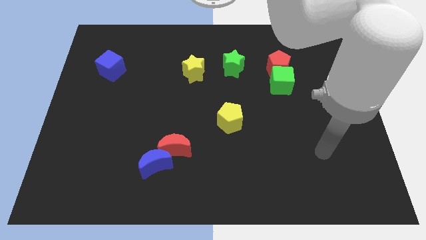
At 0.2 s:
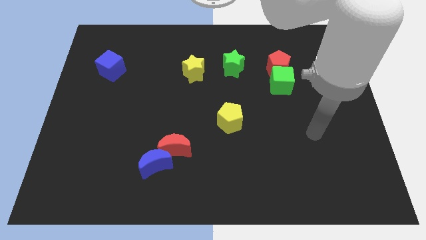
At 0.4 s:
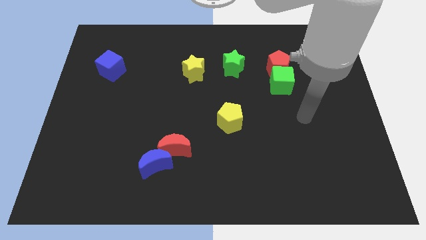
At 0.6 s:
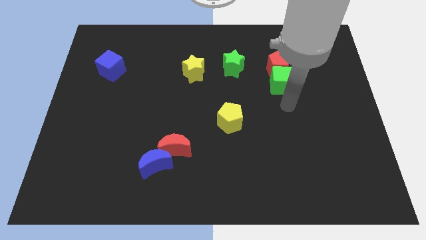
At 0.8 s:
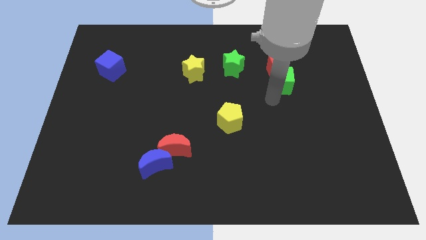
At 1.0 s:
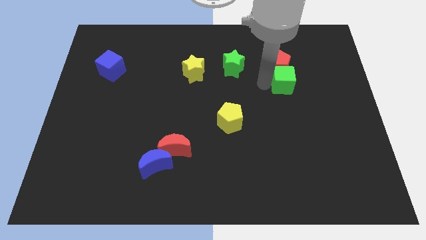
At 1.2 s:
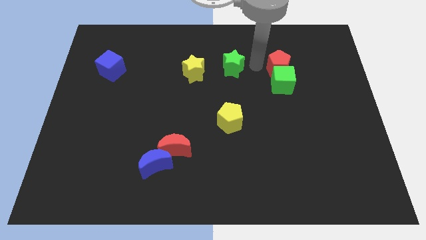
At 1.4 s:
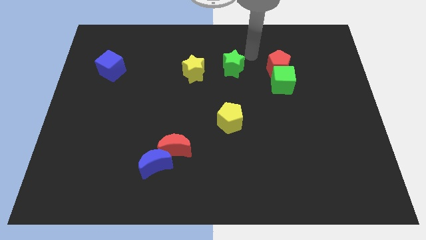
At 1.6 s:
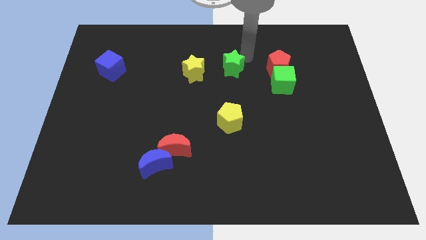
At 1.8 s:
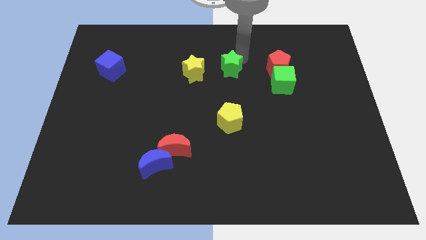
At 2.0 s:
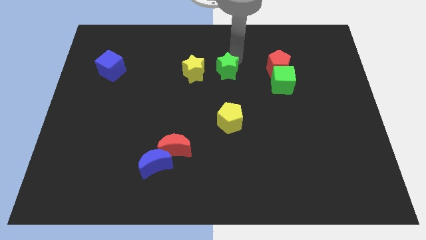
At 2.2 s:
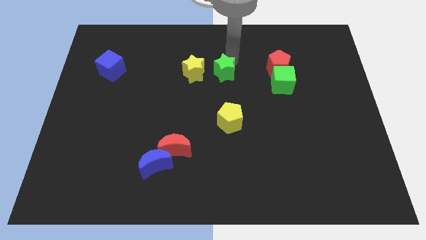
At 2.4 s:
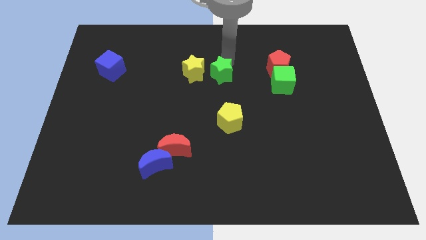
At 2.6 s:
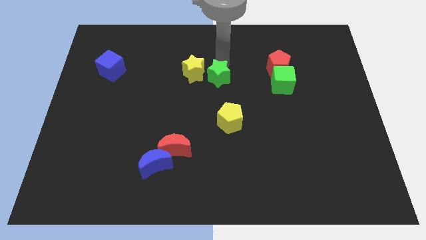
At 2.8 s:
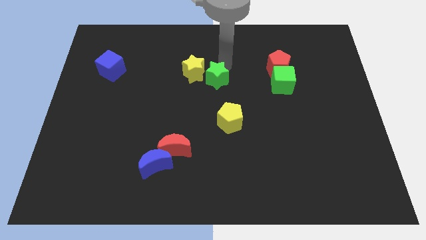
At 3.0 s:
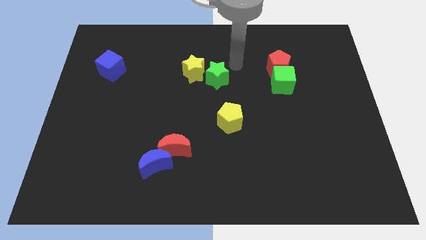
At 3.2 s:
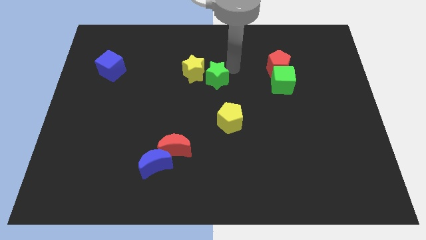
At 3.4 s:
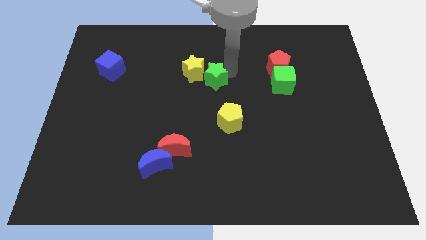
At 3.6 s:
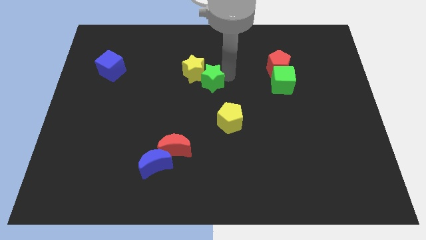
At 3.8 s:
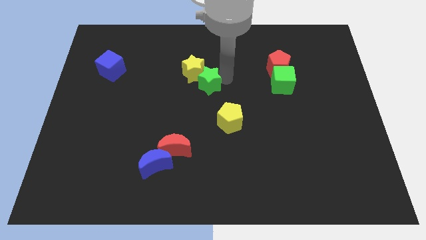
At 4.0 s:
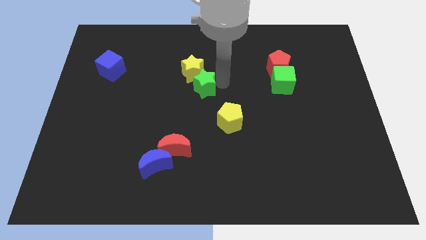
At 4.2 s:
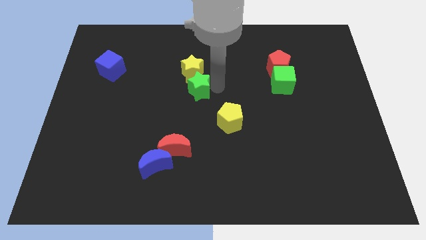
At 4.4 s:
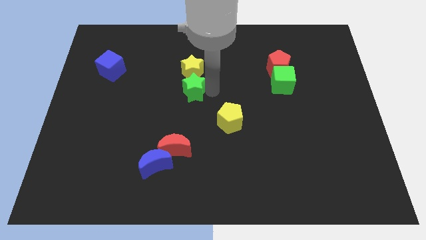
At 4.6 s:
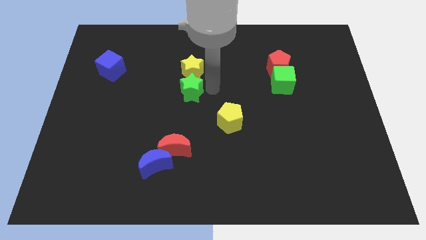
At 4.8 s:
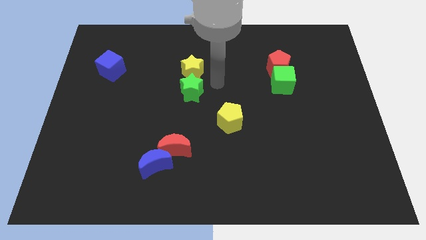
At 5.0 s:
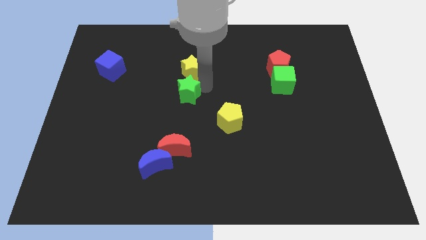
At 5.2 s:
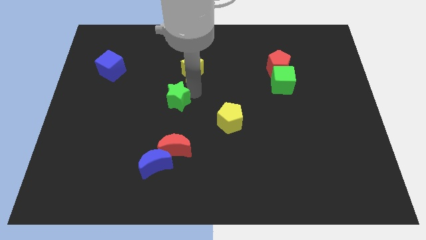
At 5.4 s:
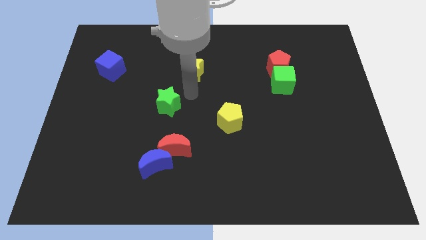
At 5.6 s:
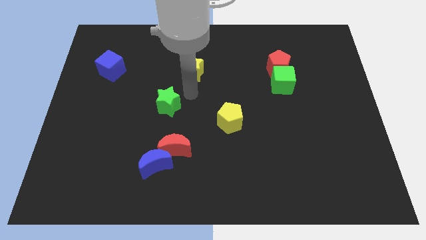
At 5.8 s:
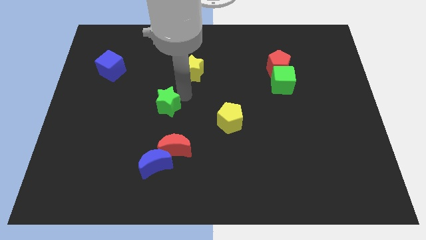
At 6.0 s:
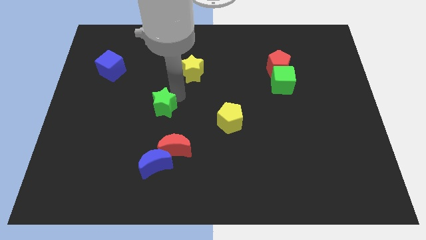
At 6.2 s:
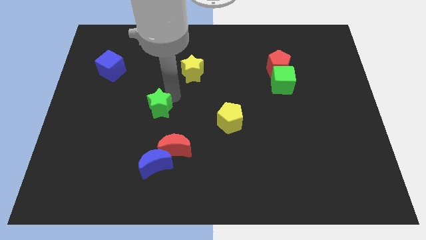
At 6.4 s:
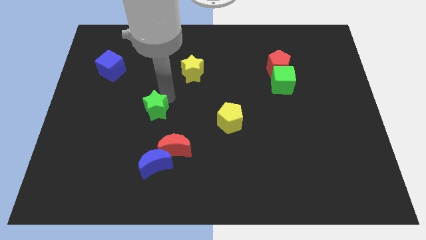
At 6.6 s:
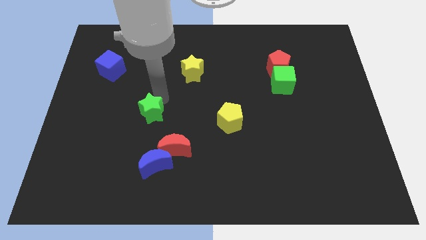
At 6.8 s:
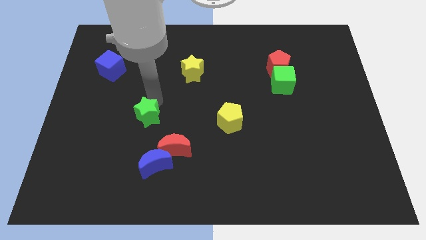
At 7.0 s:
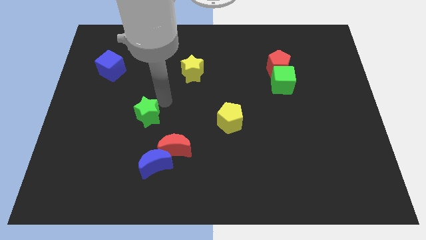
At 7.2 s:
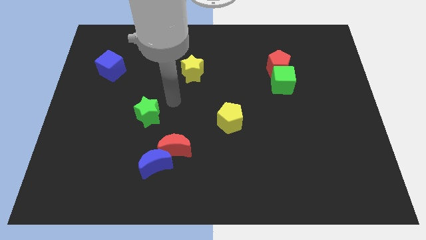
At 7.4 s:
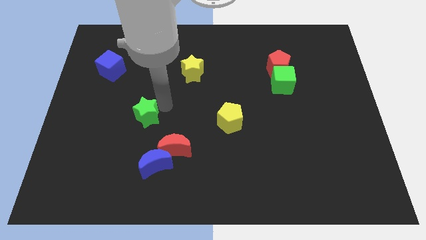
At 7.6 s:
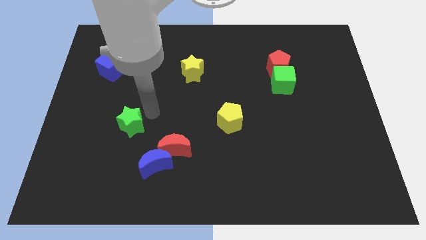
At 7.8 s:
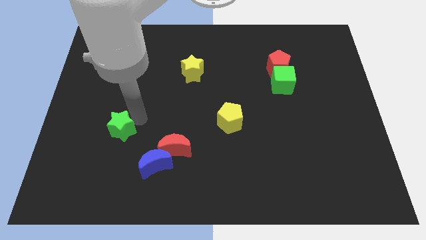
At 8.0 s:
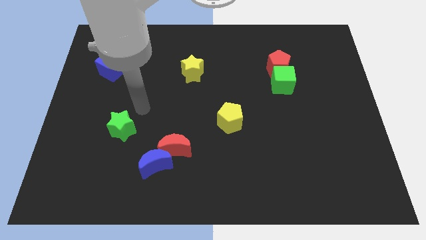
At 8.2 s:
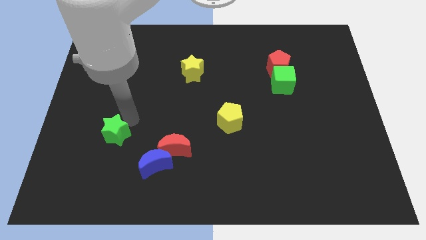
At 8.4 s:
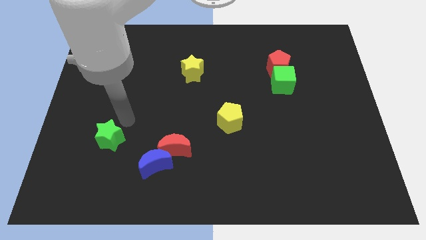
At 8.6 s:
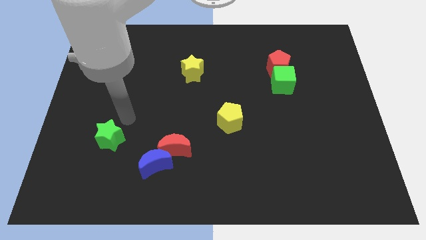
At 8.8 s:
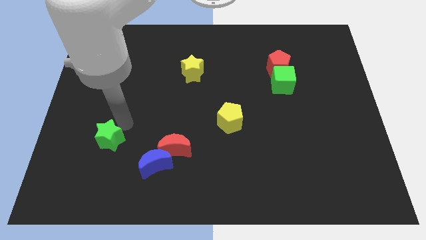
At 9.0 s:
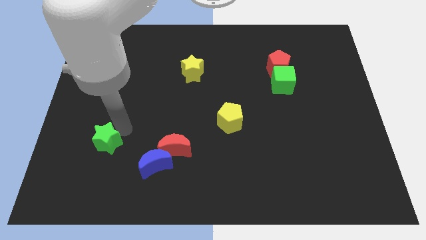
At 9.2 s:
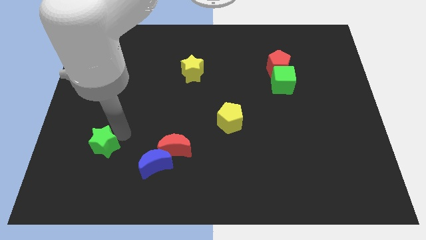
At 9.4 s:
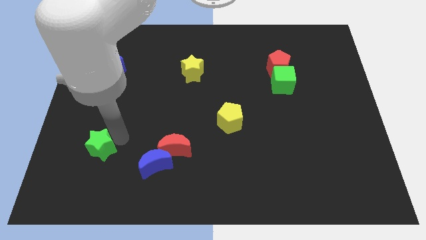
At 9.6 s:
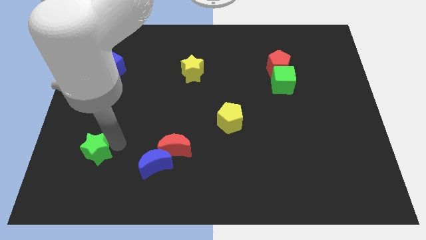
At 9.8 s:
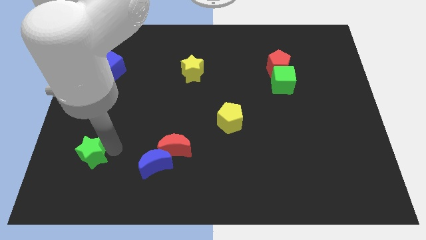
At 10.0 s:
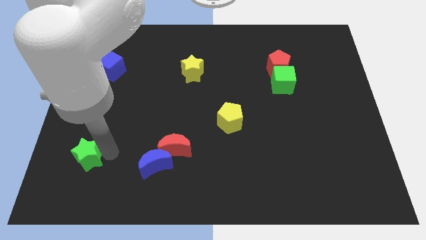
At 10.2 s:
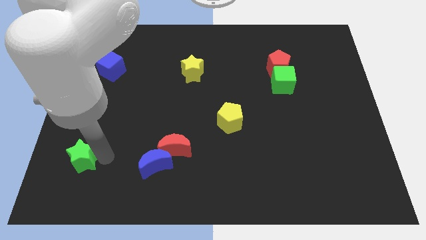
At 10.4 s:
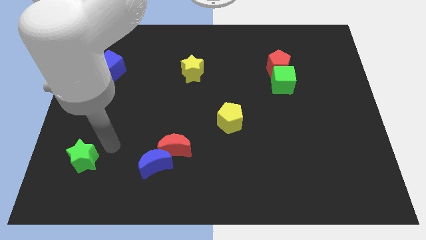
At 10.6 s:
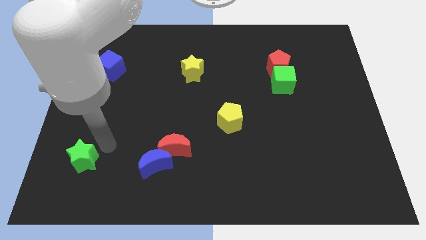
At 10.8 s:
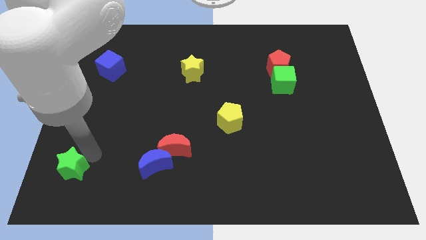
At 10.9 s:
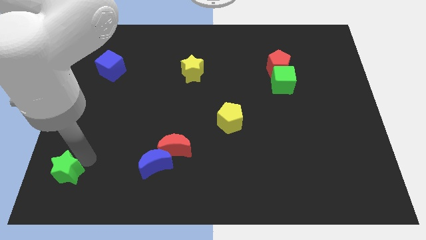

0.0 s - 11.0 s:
put the green star to the bottom left of the board
